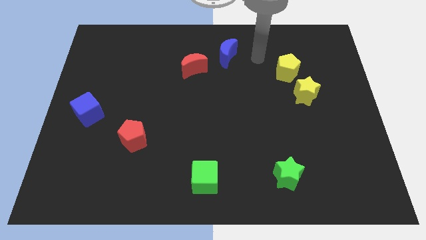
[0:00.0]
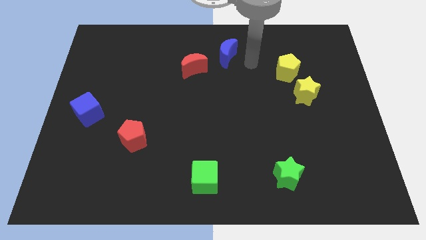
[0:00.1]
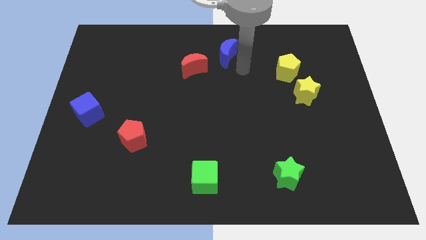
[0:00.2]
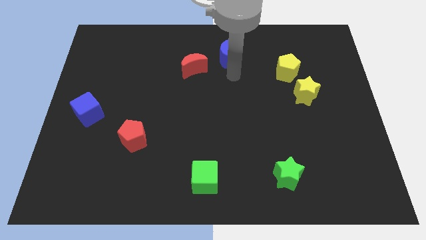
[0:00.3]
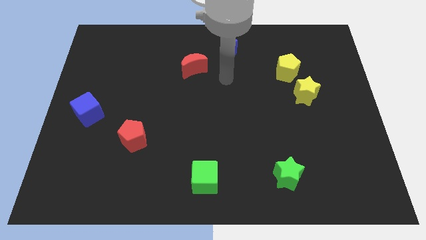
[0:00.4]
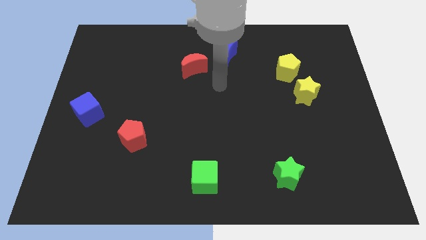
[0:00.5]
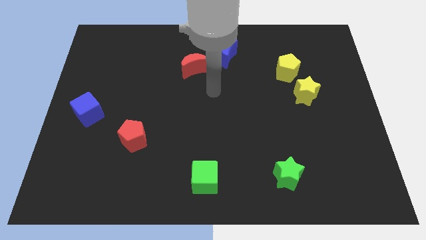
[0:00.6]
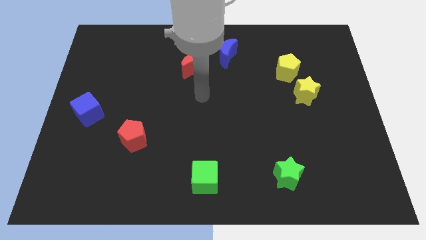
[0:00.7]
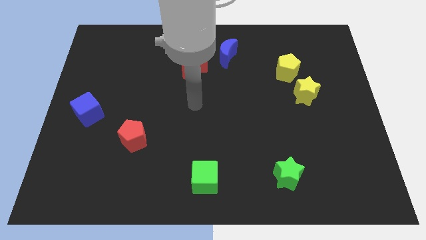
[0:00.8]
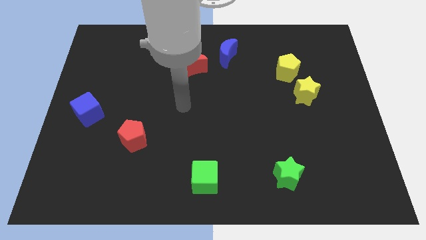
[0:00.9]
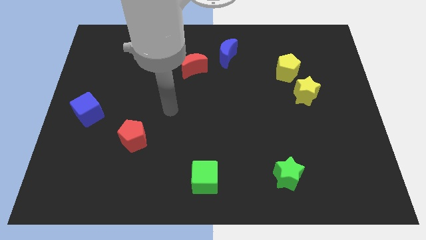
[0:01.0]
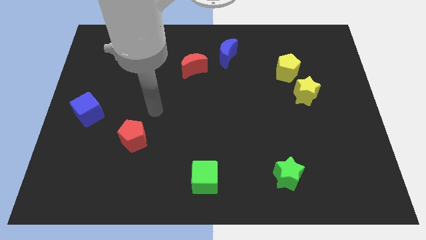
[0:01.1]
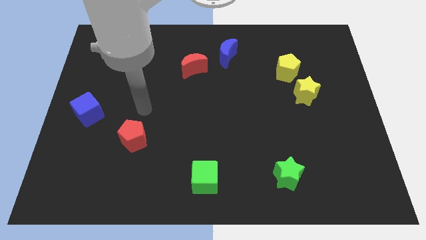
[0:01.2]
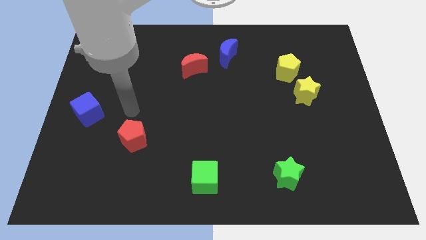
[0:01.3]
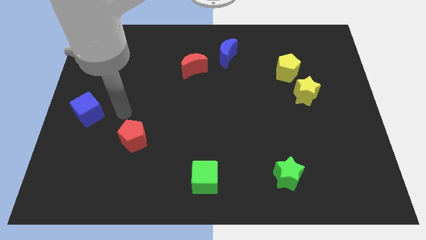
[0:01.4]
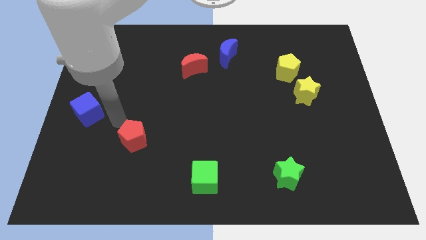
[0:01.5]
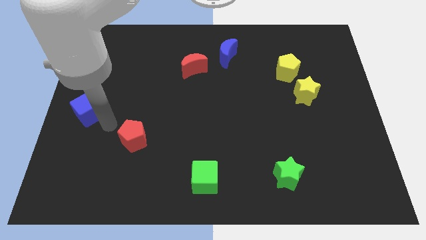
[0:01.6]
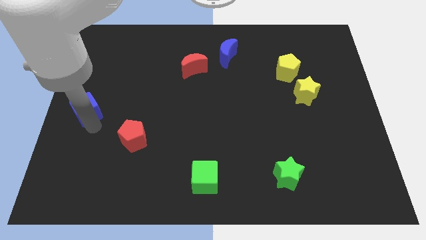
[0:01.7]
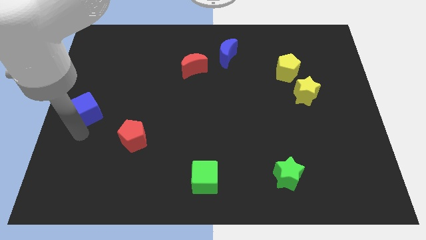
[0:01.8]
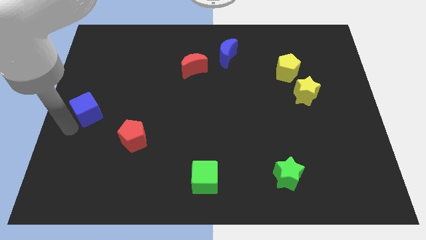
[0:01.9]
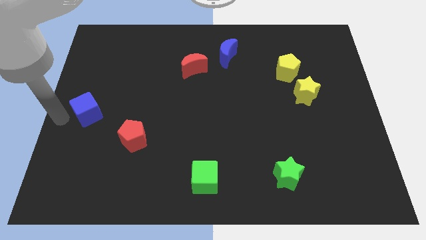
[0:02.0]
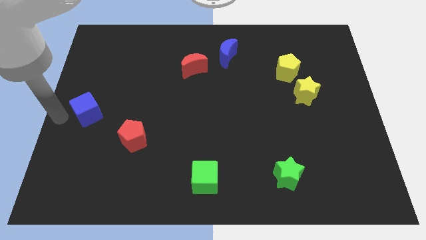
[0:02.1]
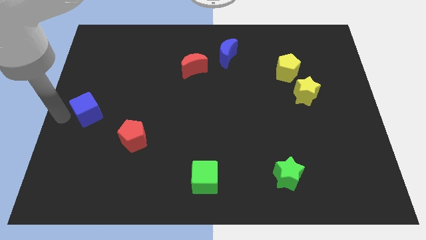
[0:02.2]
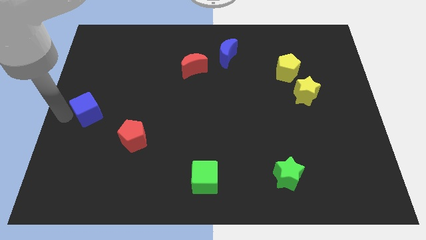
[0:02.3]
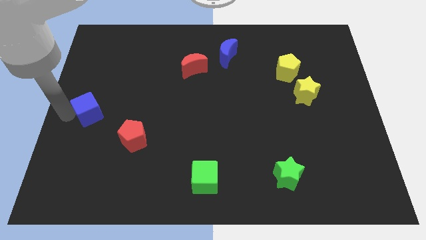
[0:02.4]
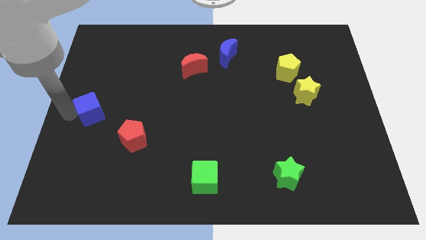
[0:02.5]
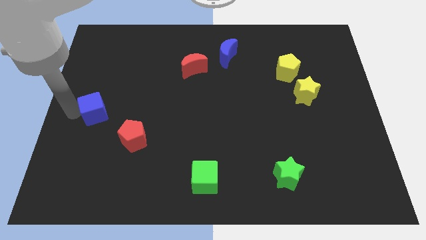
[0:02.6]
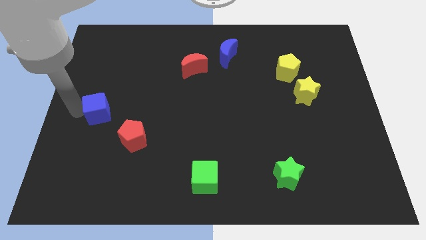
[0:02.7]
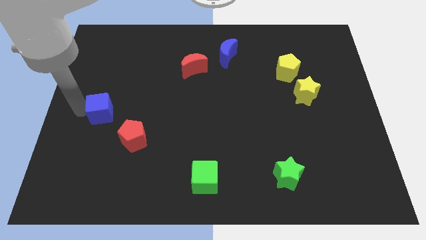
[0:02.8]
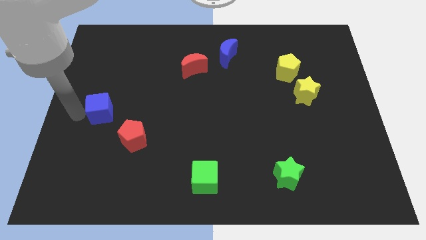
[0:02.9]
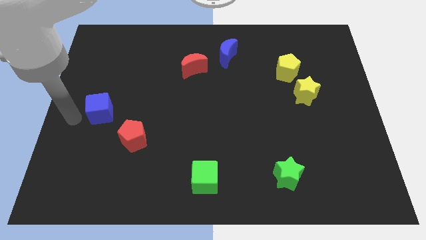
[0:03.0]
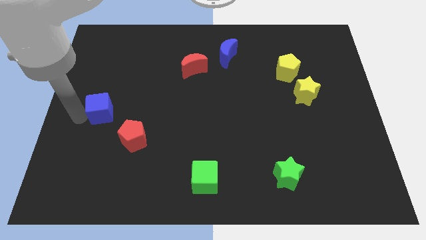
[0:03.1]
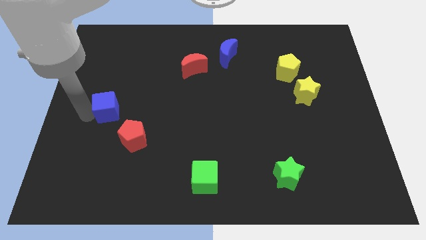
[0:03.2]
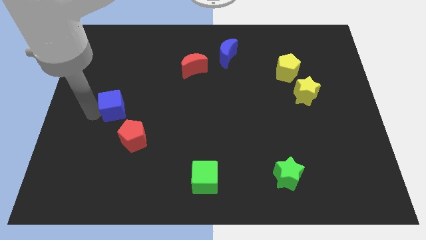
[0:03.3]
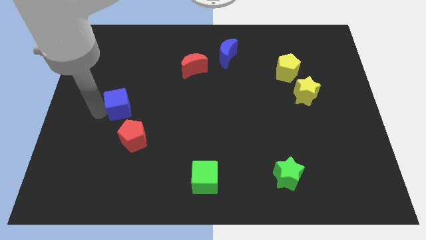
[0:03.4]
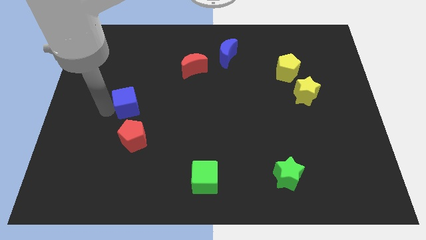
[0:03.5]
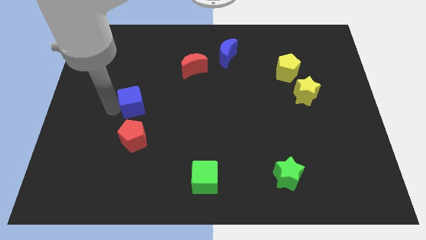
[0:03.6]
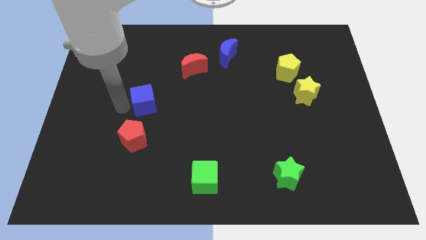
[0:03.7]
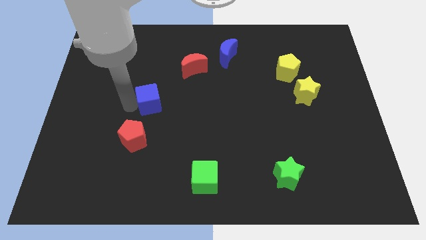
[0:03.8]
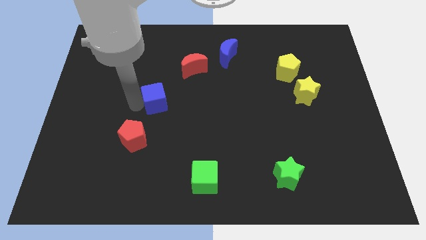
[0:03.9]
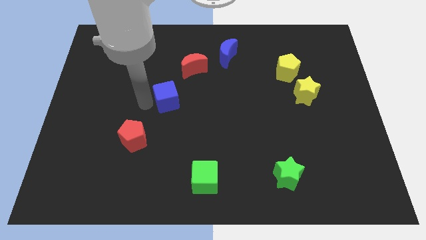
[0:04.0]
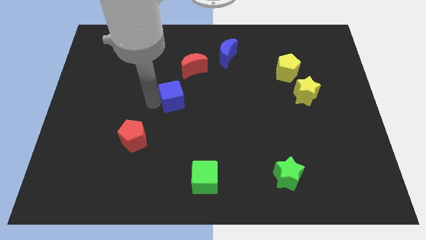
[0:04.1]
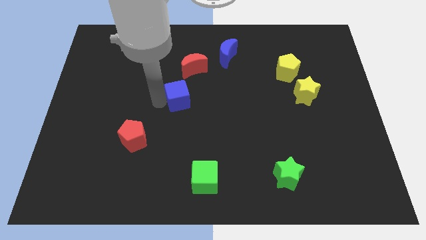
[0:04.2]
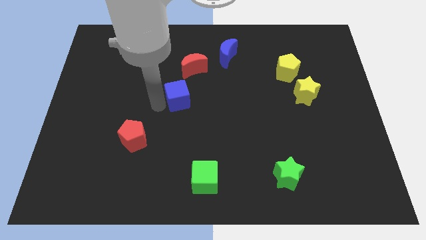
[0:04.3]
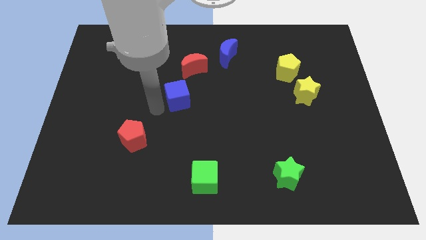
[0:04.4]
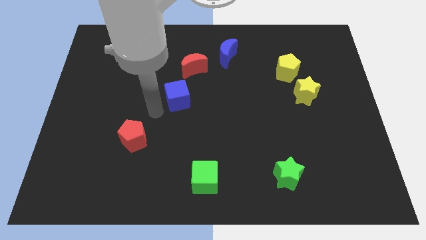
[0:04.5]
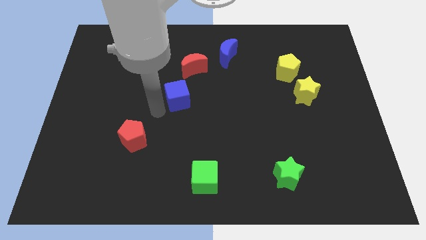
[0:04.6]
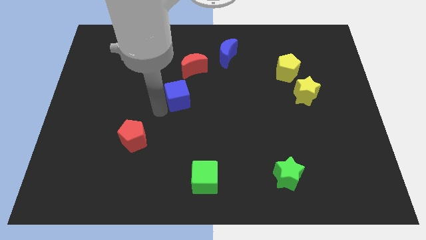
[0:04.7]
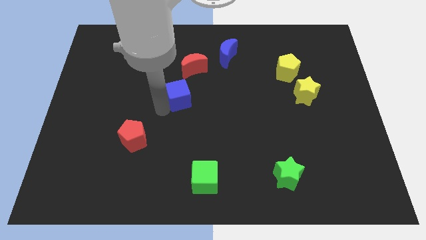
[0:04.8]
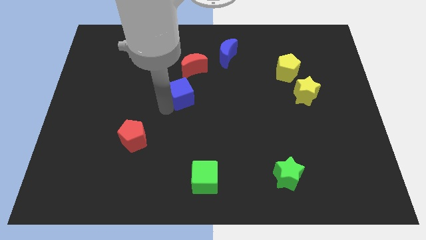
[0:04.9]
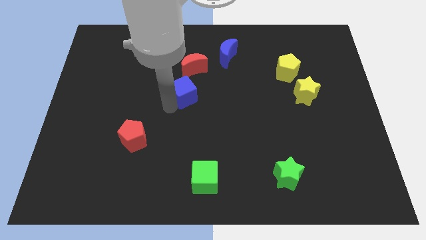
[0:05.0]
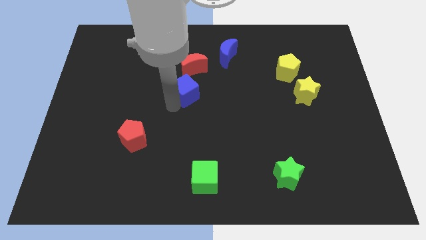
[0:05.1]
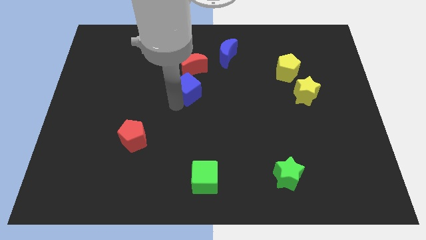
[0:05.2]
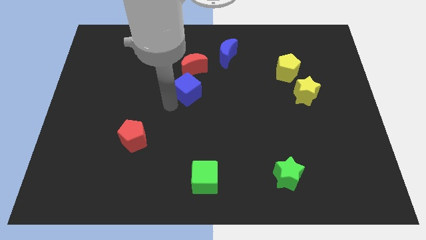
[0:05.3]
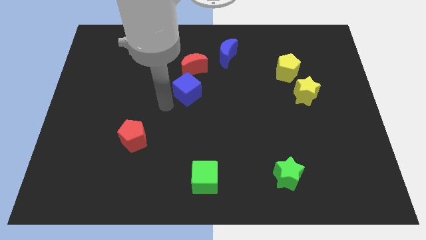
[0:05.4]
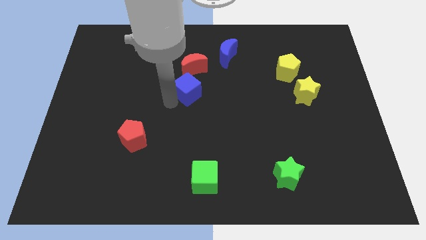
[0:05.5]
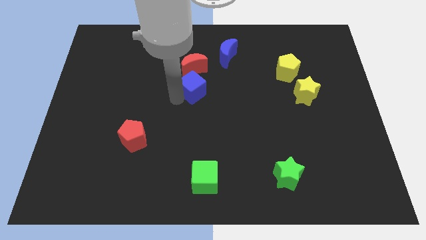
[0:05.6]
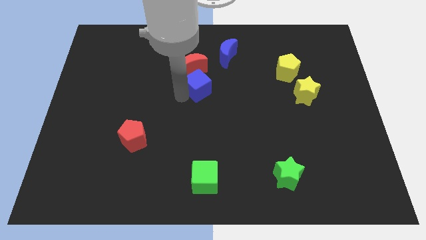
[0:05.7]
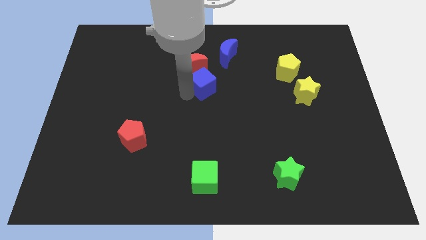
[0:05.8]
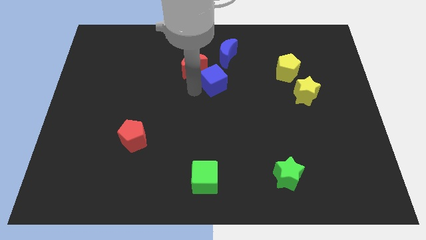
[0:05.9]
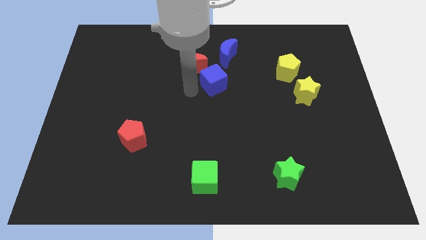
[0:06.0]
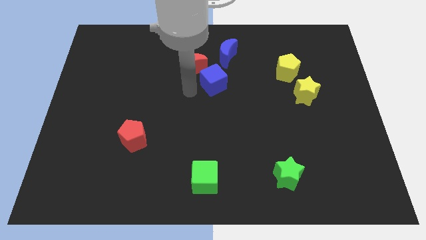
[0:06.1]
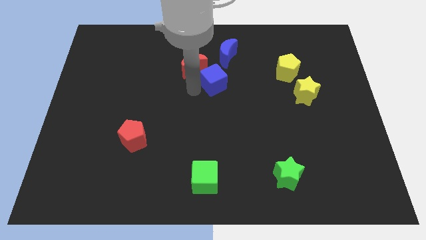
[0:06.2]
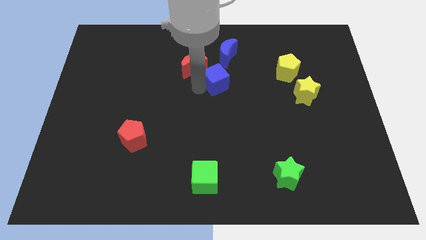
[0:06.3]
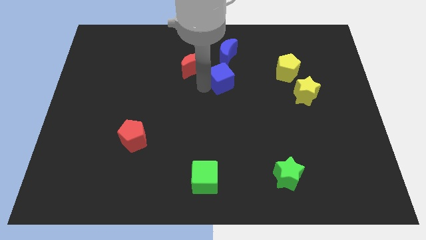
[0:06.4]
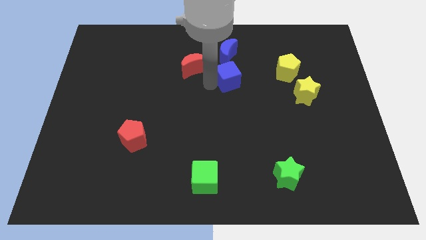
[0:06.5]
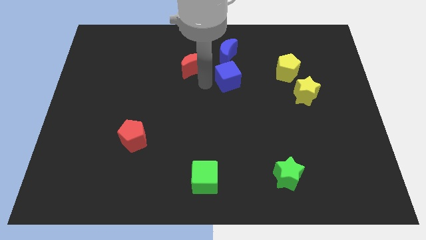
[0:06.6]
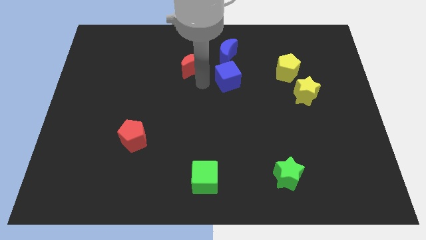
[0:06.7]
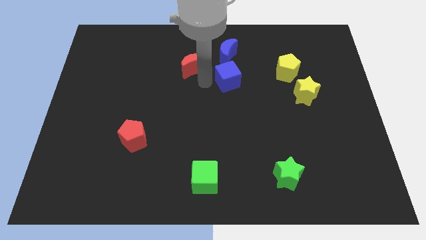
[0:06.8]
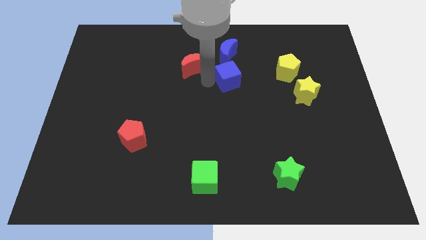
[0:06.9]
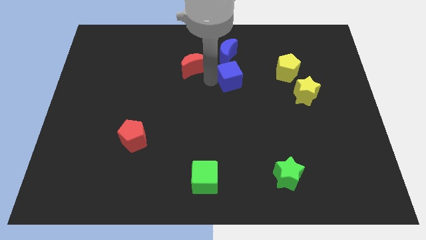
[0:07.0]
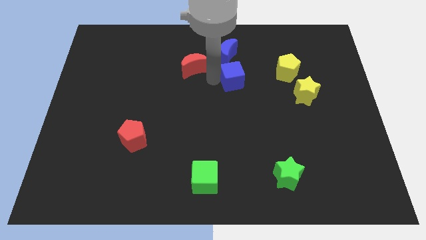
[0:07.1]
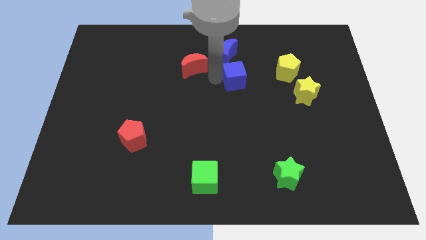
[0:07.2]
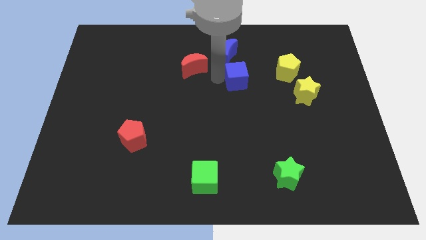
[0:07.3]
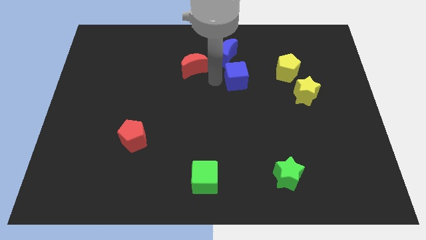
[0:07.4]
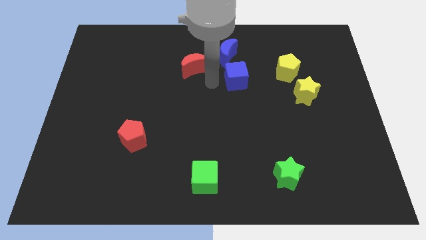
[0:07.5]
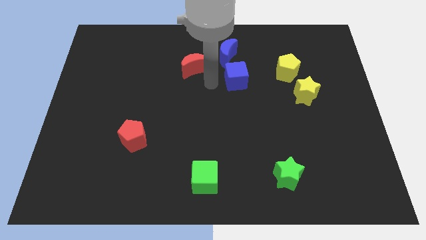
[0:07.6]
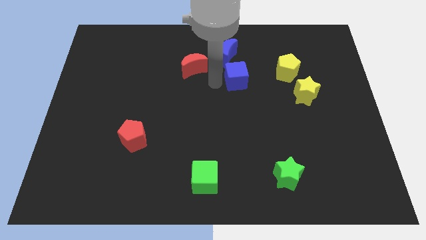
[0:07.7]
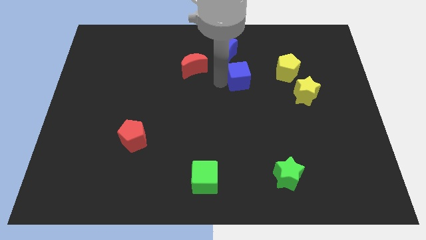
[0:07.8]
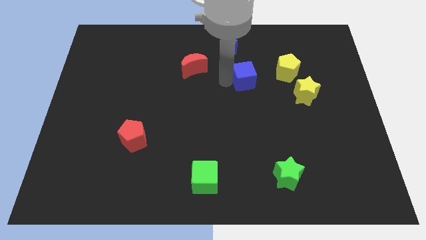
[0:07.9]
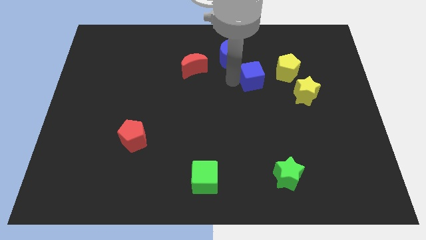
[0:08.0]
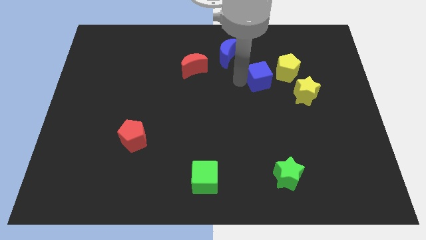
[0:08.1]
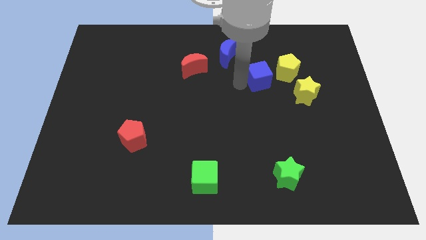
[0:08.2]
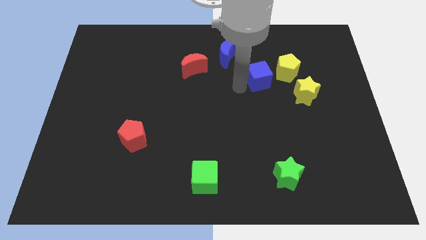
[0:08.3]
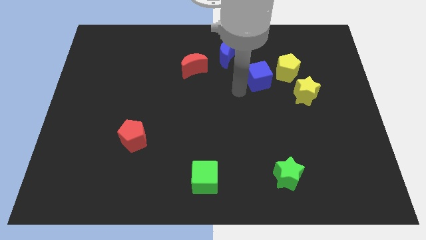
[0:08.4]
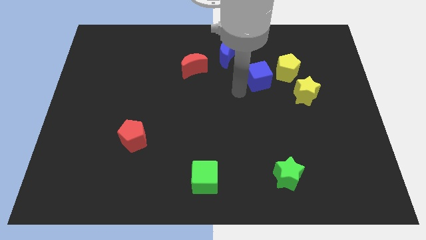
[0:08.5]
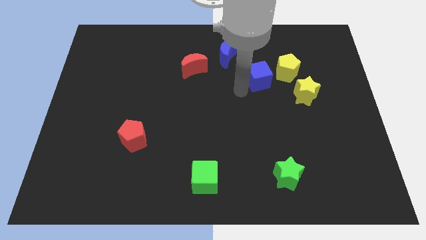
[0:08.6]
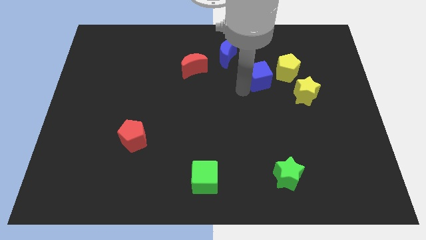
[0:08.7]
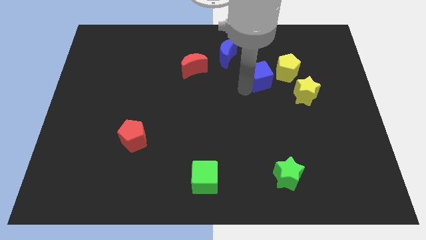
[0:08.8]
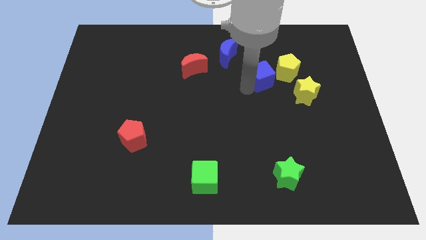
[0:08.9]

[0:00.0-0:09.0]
slide the blue cube to the top left of the yellow star
